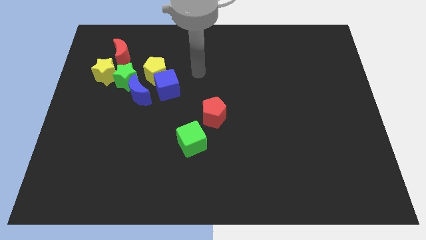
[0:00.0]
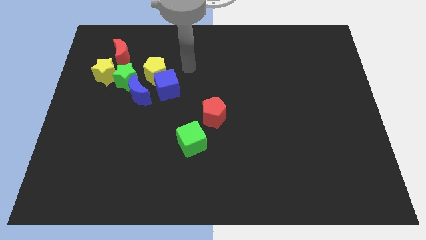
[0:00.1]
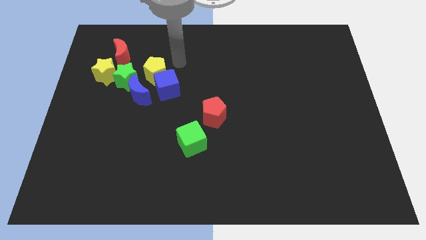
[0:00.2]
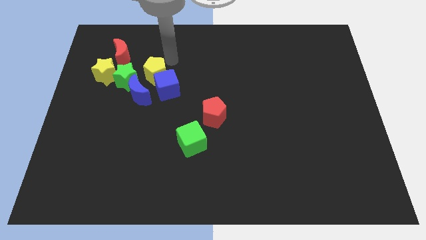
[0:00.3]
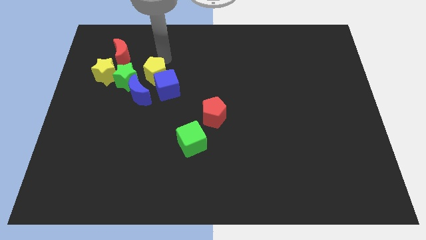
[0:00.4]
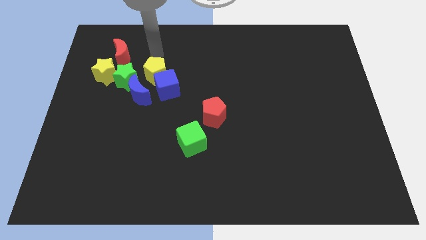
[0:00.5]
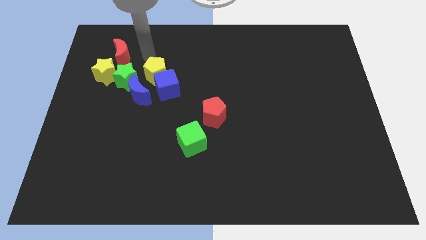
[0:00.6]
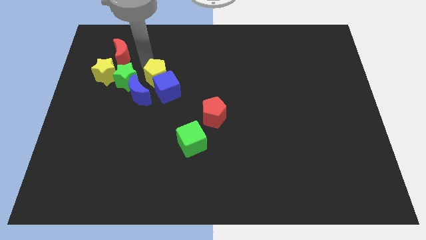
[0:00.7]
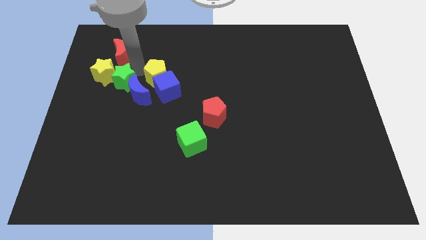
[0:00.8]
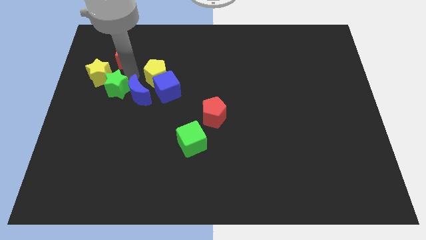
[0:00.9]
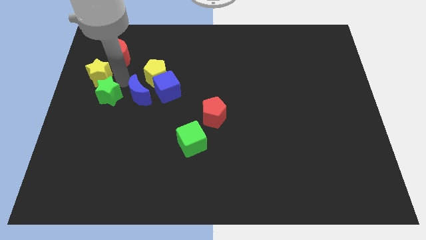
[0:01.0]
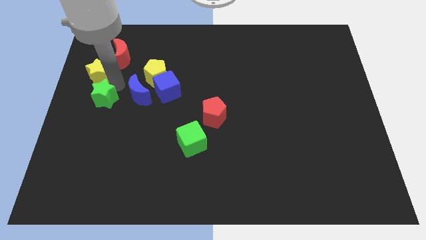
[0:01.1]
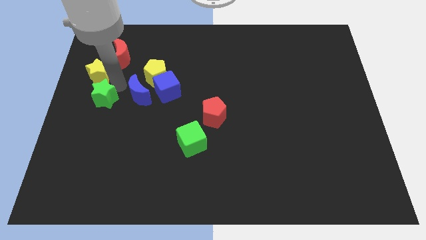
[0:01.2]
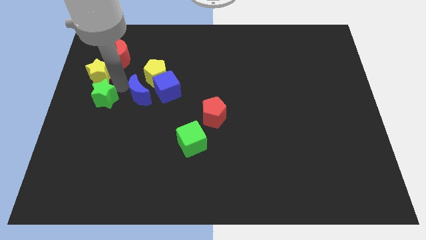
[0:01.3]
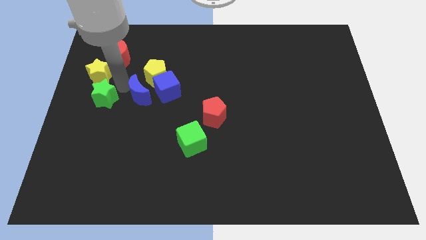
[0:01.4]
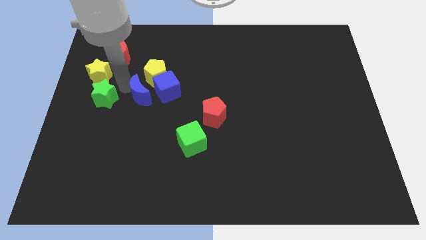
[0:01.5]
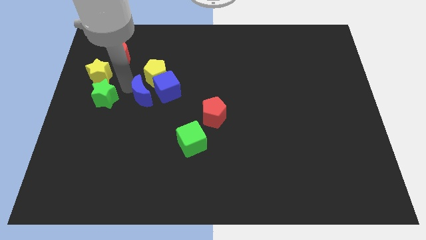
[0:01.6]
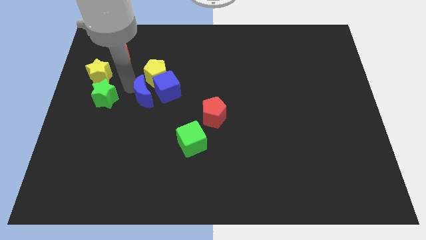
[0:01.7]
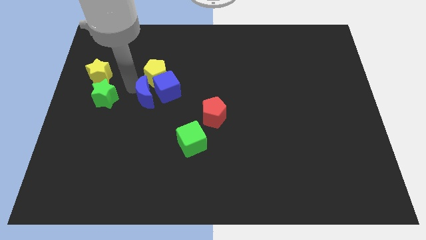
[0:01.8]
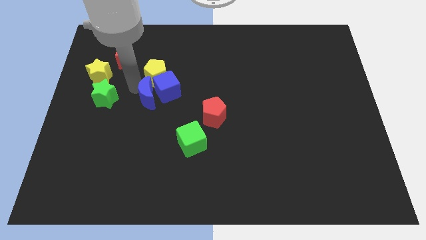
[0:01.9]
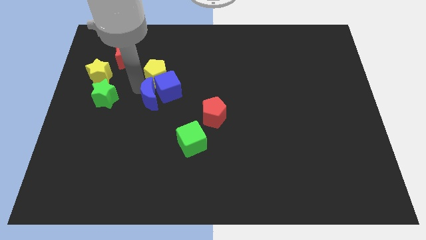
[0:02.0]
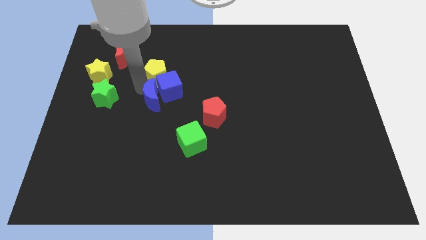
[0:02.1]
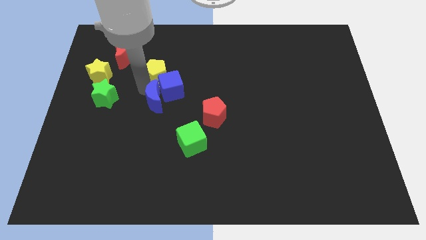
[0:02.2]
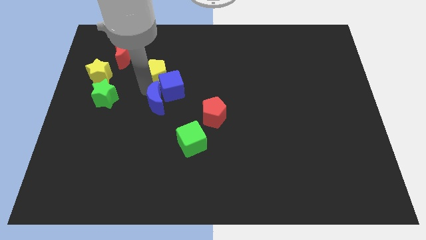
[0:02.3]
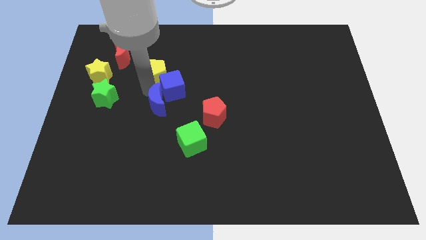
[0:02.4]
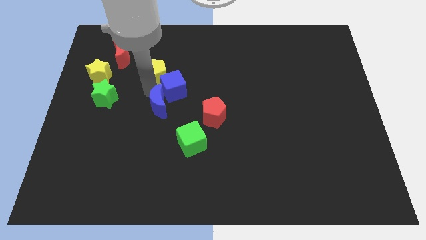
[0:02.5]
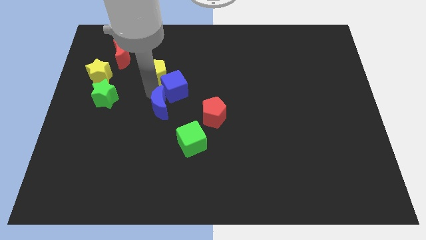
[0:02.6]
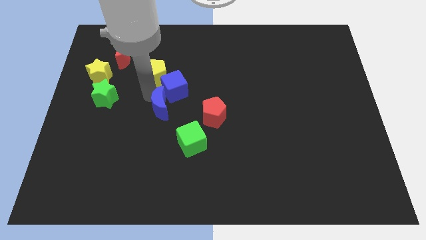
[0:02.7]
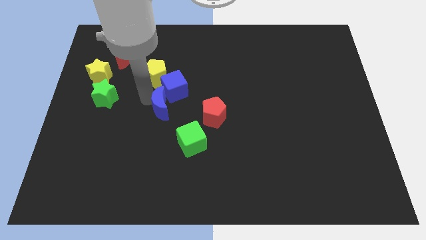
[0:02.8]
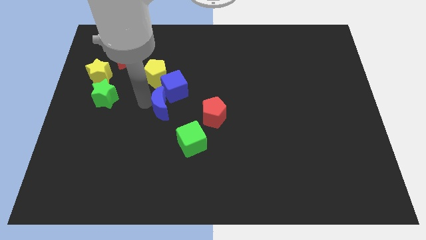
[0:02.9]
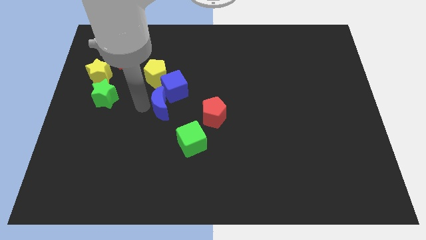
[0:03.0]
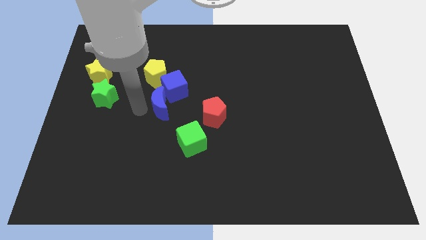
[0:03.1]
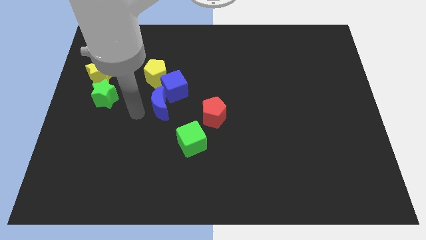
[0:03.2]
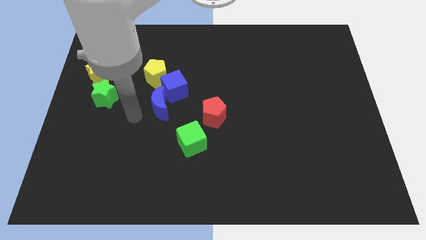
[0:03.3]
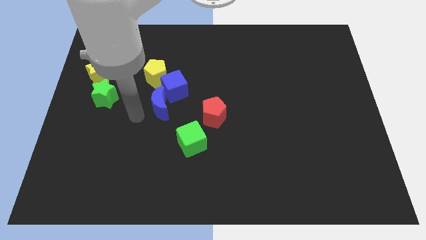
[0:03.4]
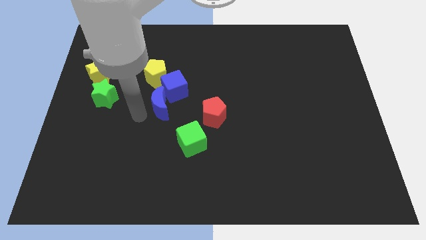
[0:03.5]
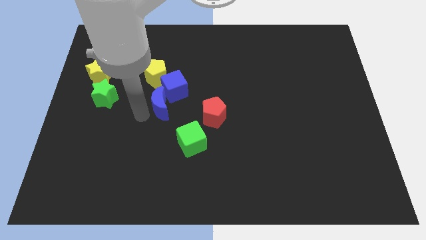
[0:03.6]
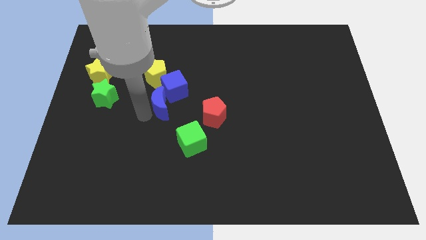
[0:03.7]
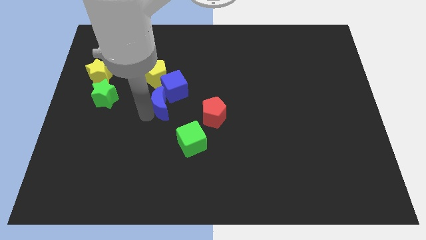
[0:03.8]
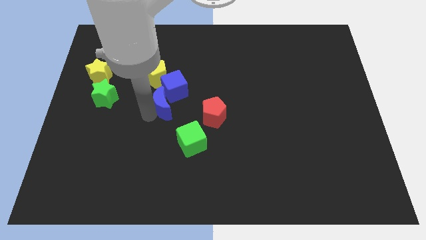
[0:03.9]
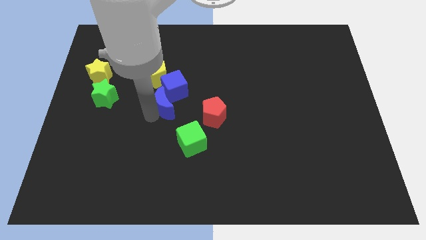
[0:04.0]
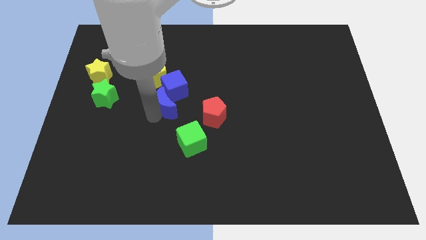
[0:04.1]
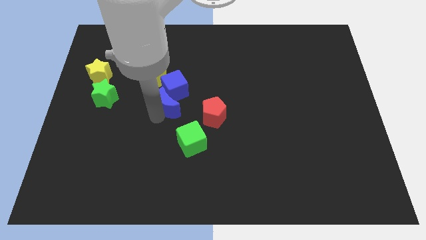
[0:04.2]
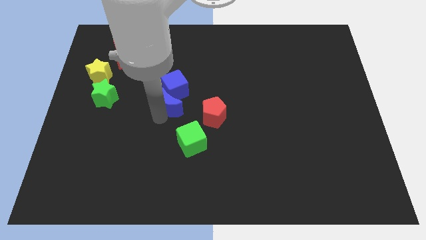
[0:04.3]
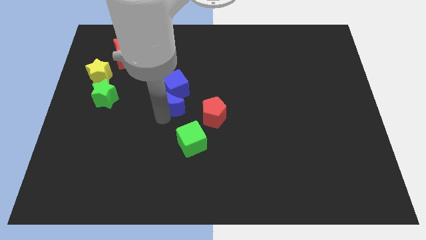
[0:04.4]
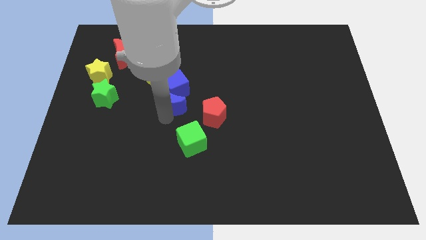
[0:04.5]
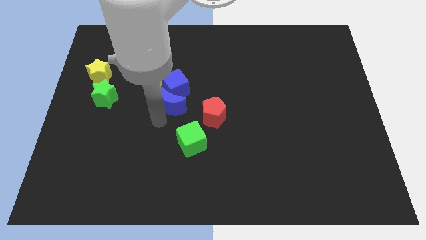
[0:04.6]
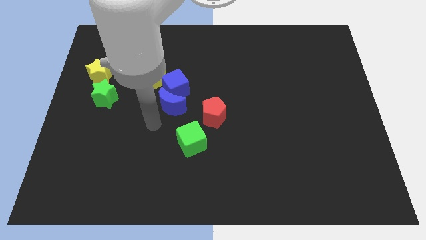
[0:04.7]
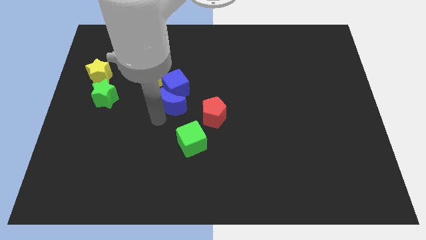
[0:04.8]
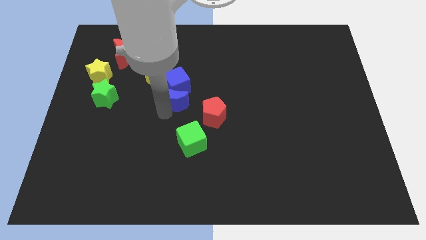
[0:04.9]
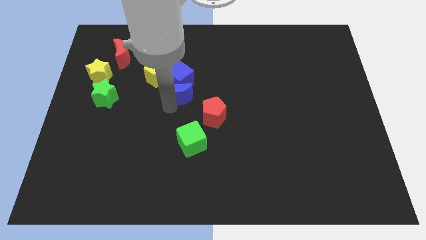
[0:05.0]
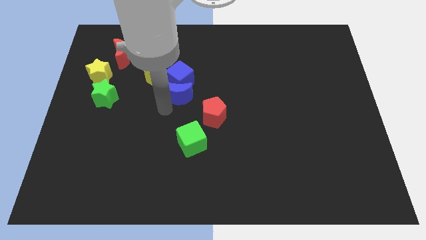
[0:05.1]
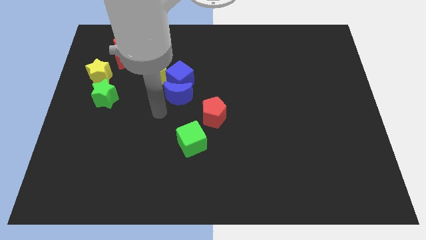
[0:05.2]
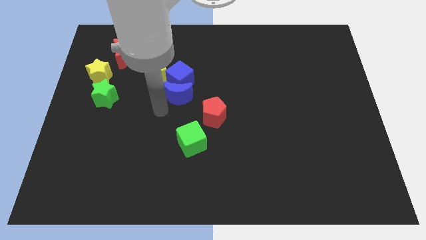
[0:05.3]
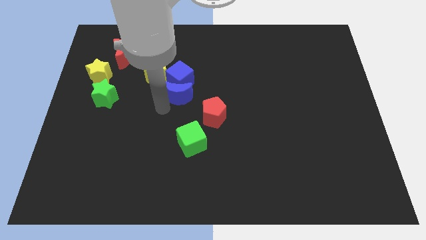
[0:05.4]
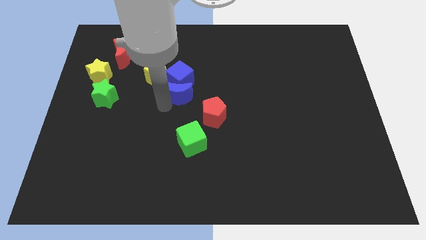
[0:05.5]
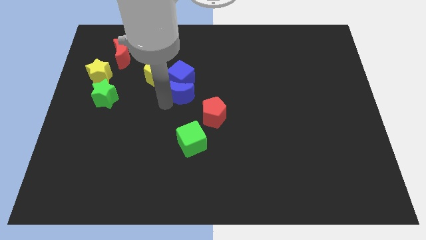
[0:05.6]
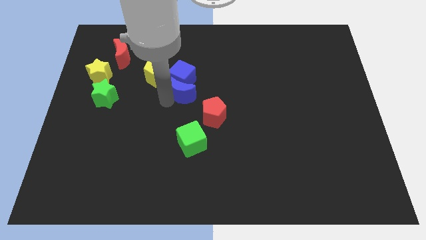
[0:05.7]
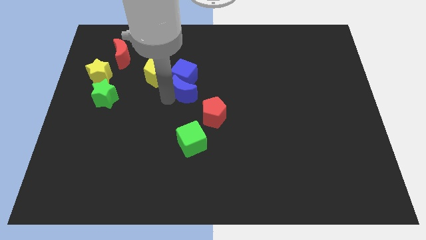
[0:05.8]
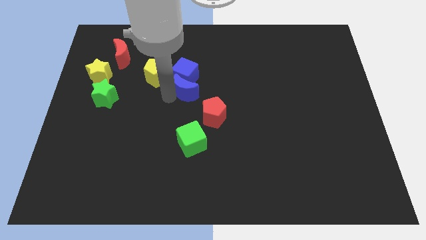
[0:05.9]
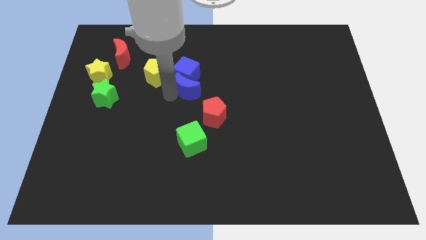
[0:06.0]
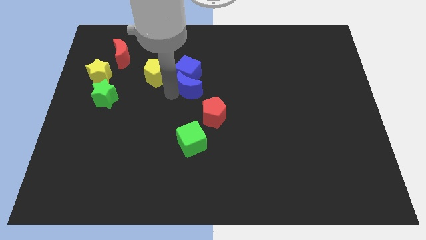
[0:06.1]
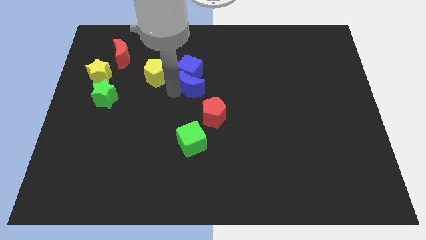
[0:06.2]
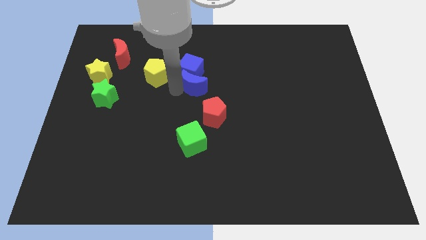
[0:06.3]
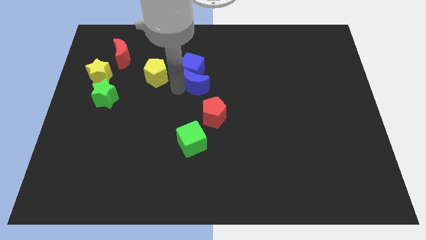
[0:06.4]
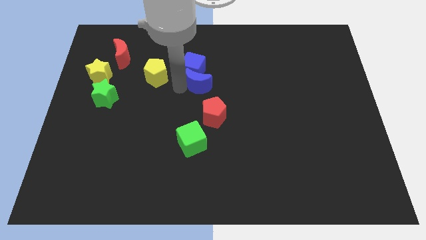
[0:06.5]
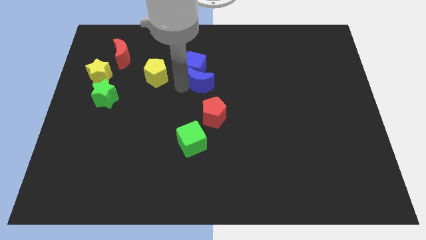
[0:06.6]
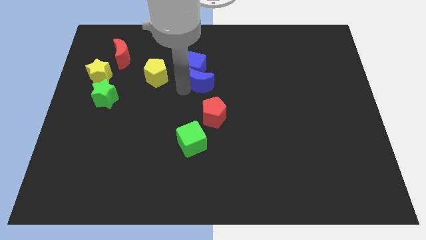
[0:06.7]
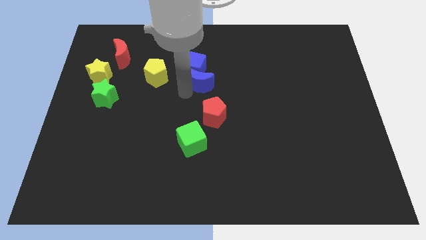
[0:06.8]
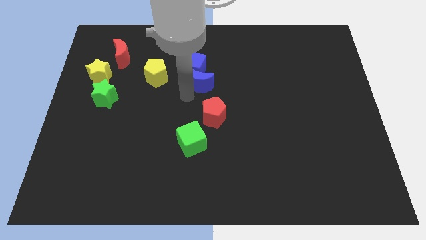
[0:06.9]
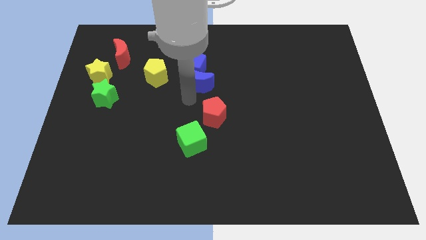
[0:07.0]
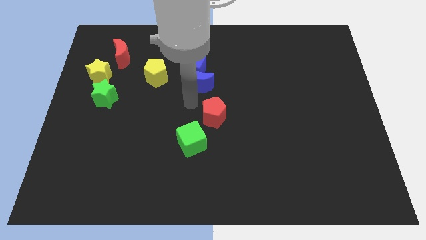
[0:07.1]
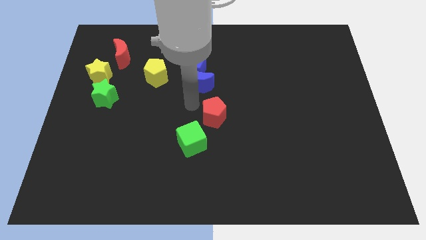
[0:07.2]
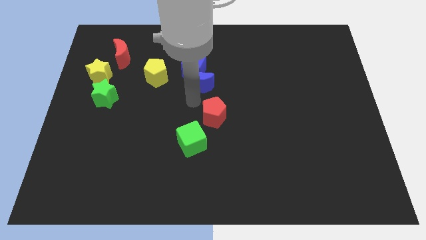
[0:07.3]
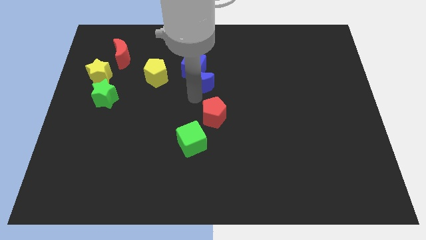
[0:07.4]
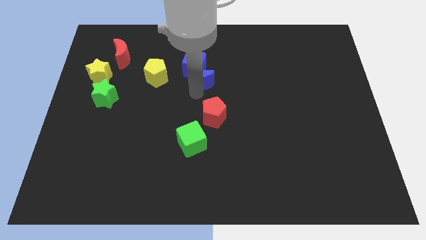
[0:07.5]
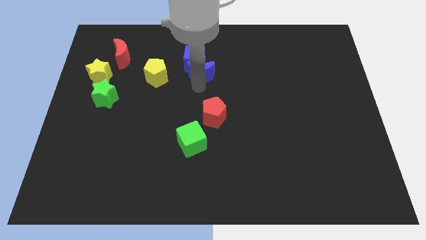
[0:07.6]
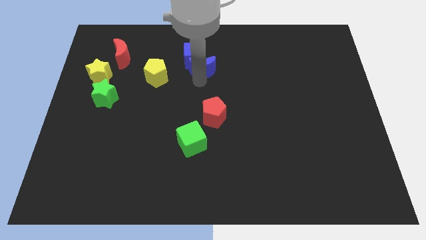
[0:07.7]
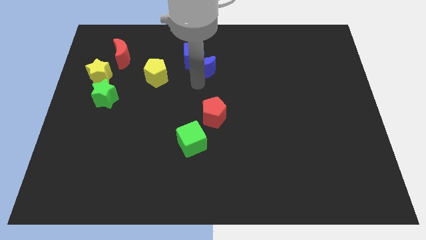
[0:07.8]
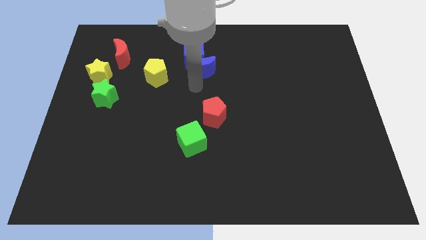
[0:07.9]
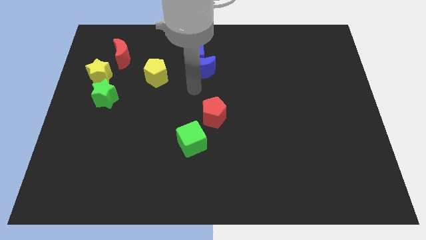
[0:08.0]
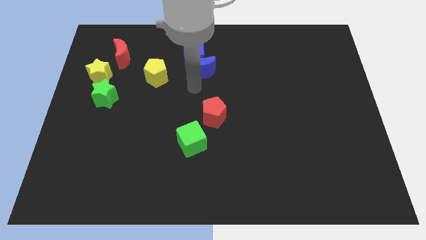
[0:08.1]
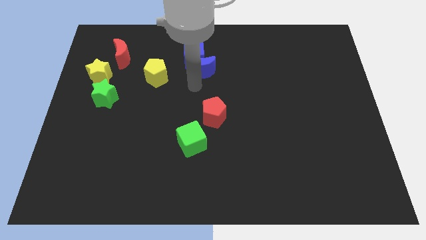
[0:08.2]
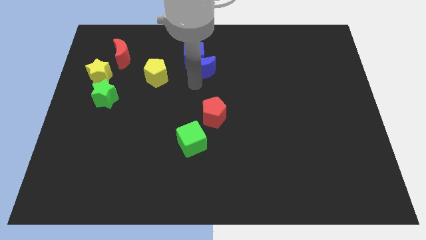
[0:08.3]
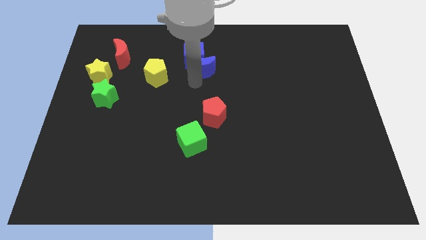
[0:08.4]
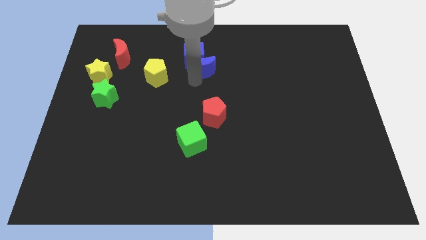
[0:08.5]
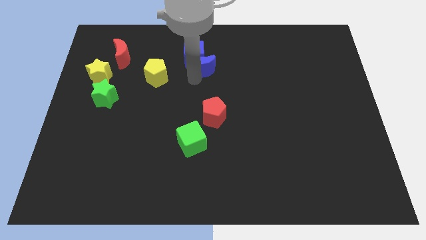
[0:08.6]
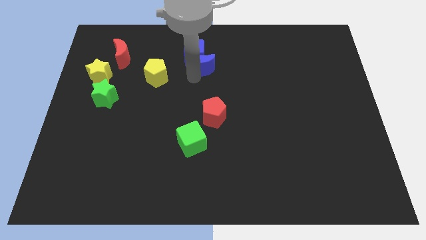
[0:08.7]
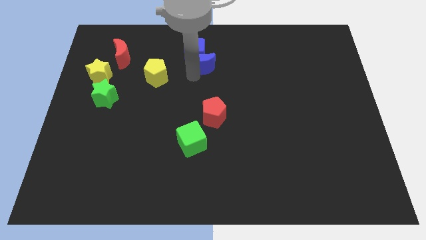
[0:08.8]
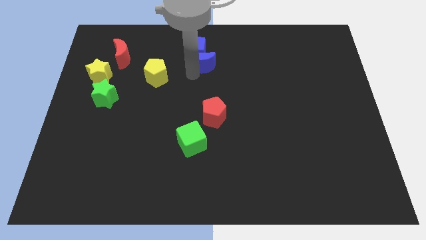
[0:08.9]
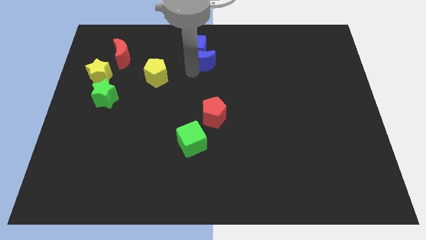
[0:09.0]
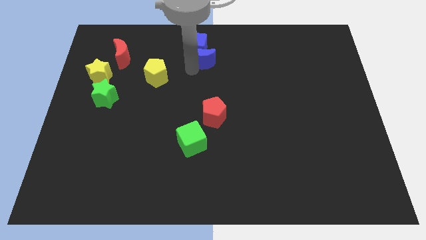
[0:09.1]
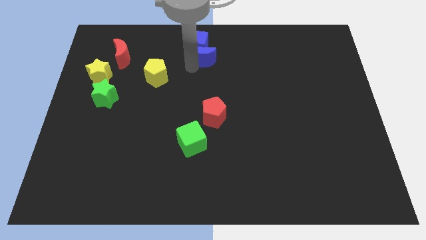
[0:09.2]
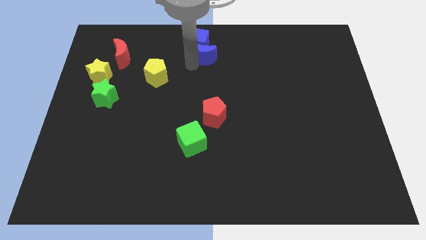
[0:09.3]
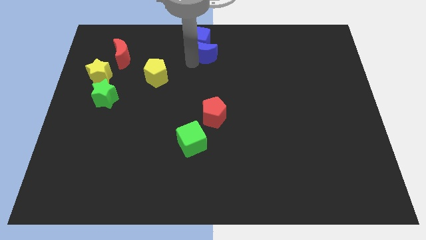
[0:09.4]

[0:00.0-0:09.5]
move the blue moon to the top
